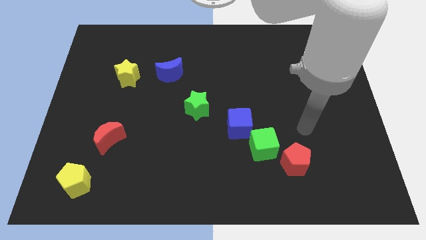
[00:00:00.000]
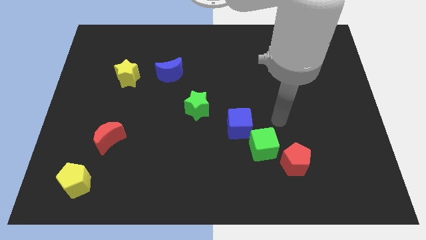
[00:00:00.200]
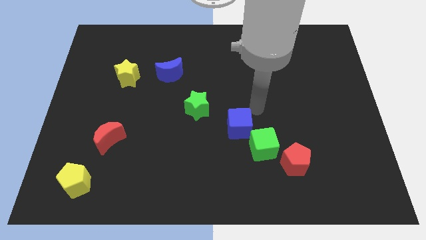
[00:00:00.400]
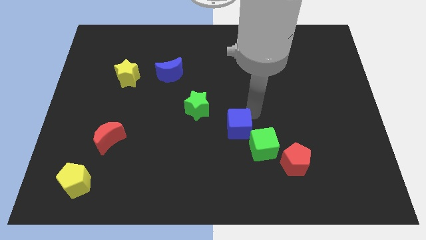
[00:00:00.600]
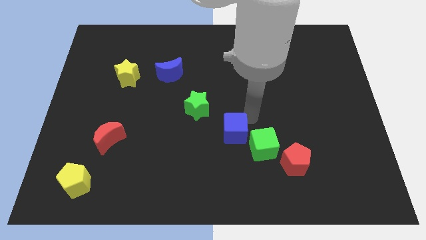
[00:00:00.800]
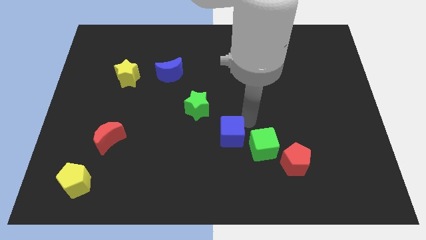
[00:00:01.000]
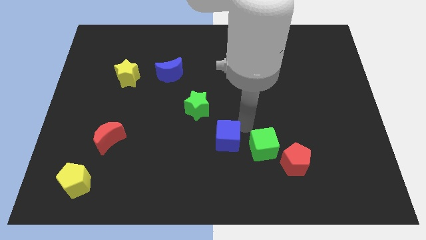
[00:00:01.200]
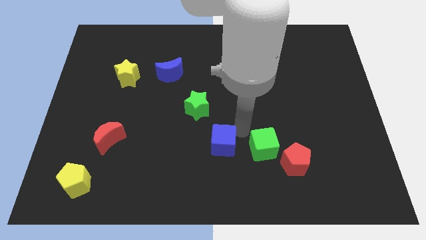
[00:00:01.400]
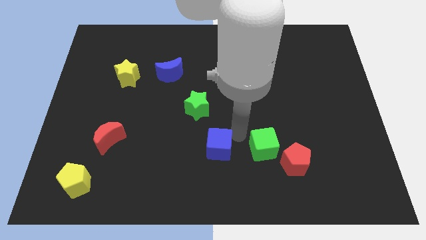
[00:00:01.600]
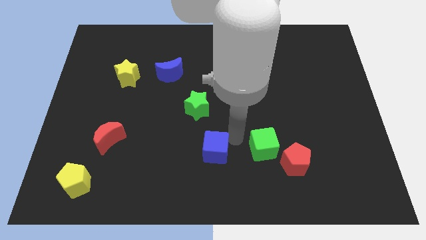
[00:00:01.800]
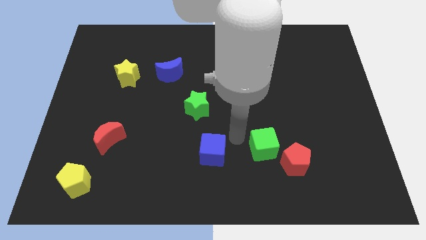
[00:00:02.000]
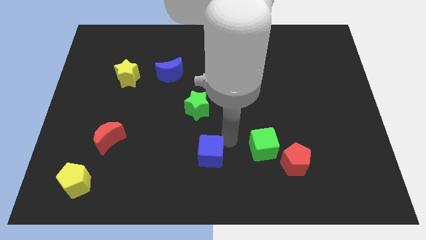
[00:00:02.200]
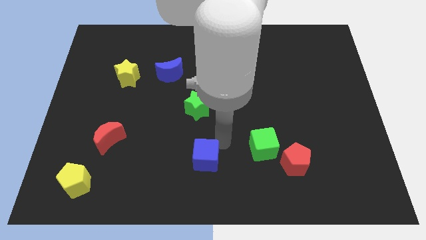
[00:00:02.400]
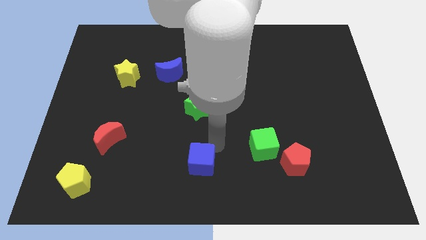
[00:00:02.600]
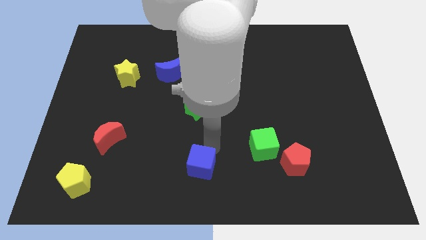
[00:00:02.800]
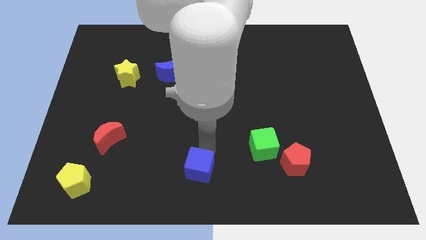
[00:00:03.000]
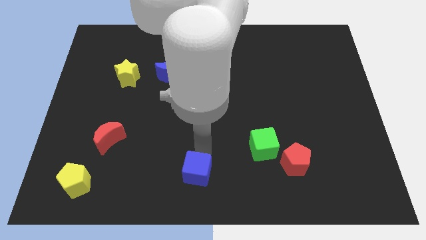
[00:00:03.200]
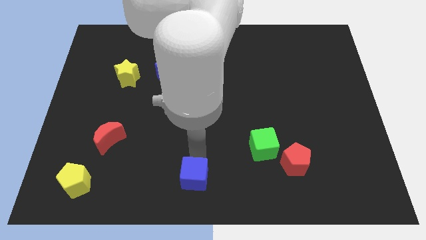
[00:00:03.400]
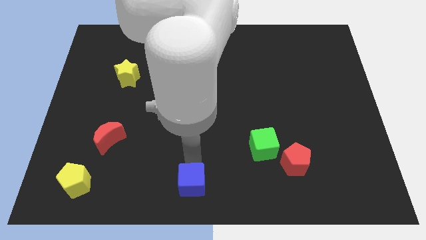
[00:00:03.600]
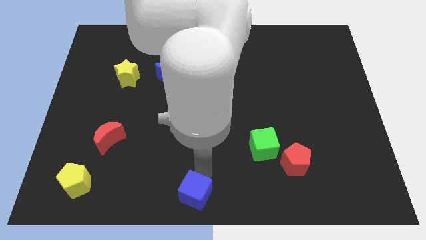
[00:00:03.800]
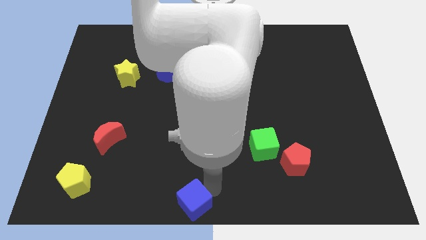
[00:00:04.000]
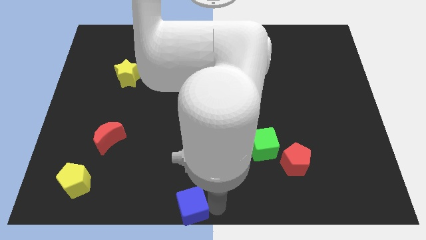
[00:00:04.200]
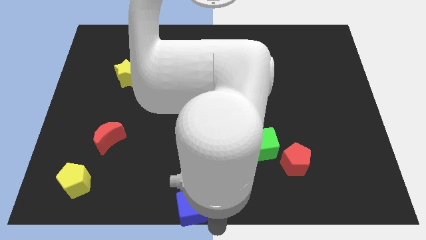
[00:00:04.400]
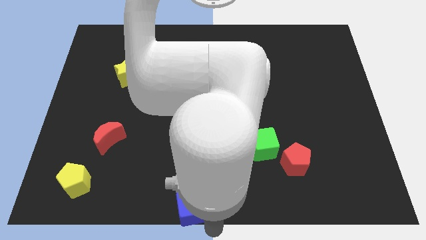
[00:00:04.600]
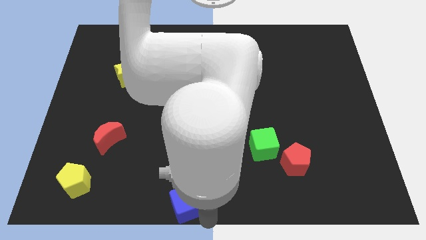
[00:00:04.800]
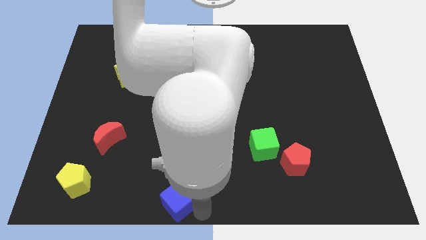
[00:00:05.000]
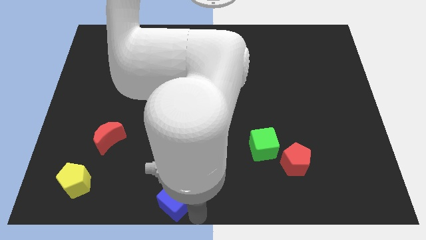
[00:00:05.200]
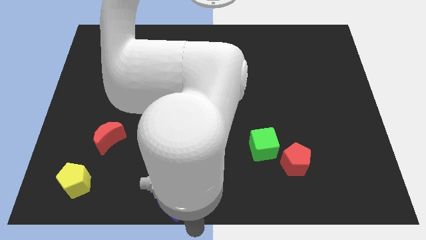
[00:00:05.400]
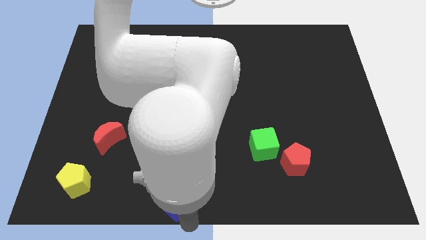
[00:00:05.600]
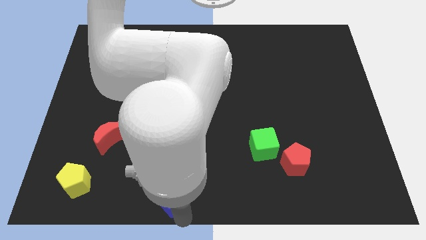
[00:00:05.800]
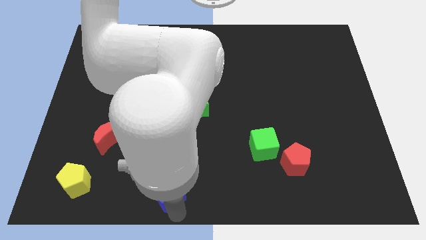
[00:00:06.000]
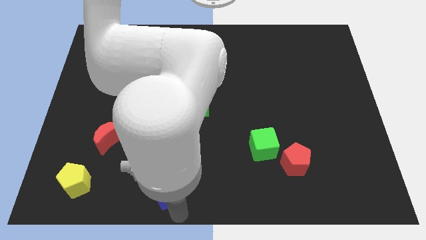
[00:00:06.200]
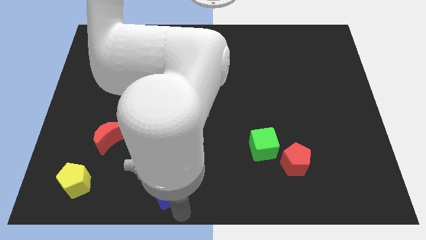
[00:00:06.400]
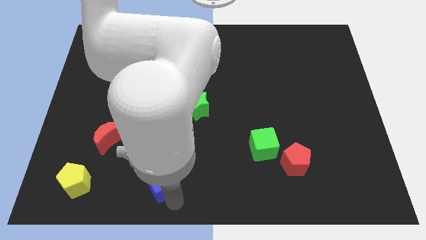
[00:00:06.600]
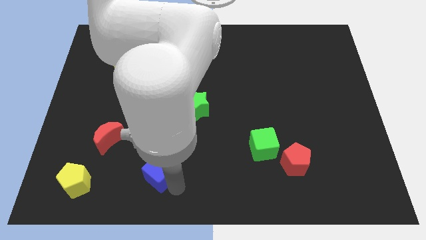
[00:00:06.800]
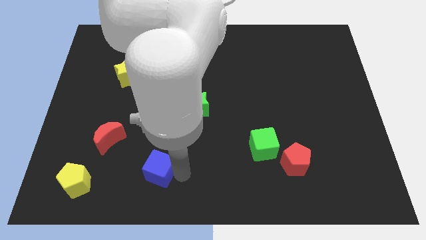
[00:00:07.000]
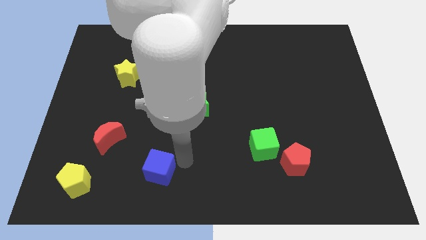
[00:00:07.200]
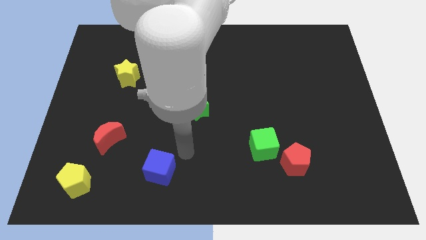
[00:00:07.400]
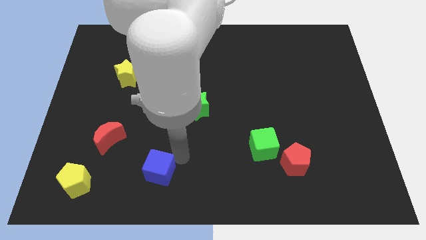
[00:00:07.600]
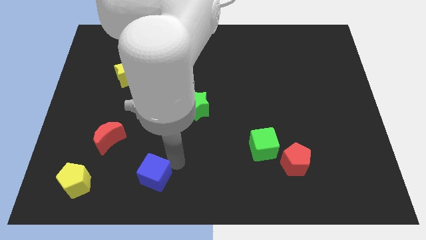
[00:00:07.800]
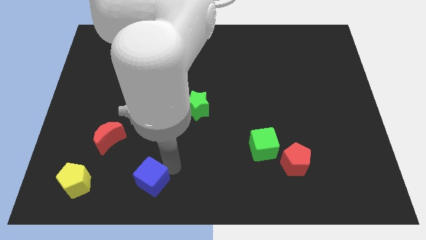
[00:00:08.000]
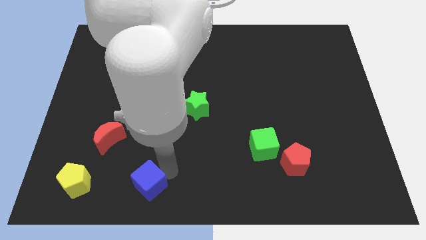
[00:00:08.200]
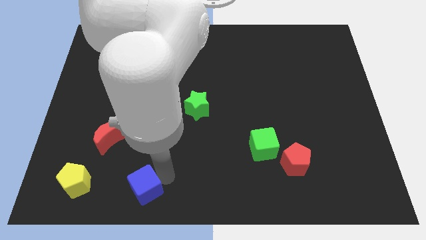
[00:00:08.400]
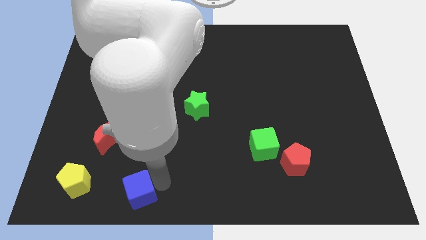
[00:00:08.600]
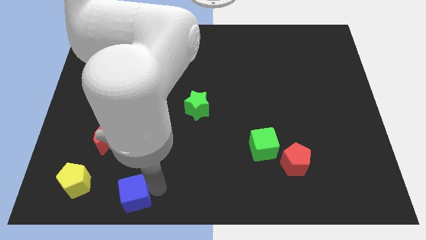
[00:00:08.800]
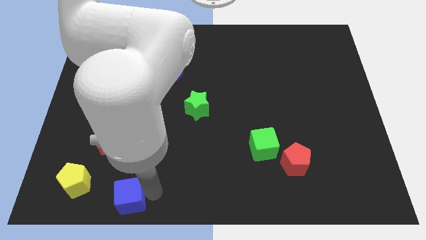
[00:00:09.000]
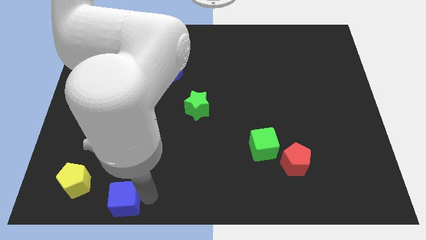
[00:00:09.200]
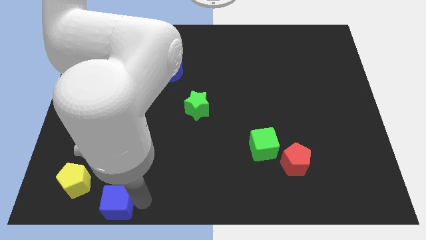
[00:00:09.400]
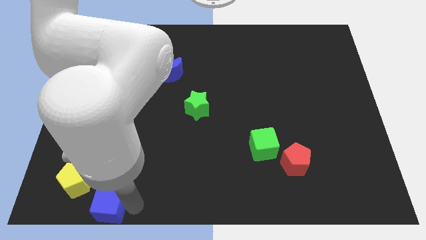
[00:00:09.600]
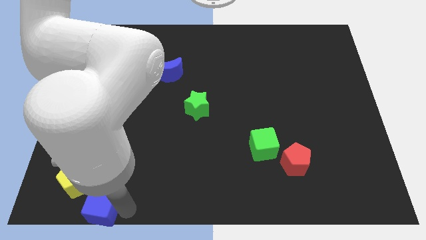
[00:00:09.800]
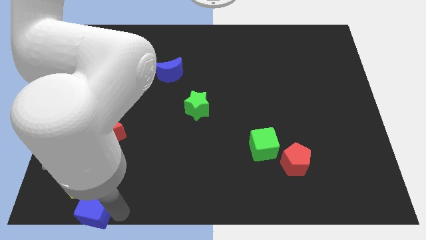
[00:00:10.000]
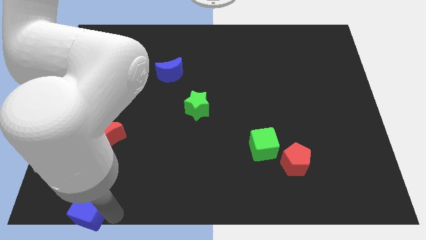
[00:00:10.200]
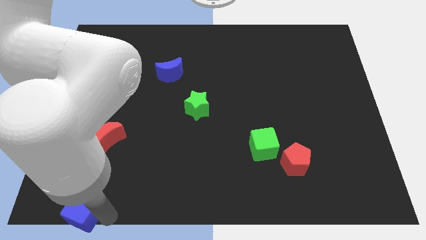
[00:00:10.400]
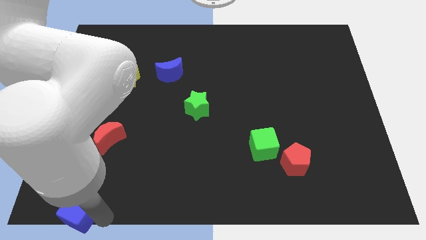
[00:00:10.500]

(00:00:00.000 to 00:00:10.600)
put the blue cube to the bottom left corner

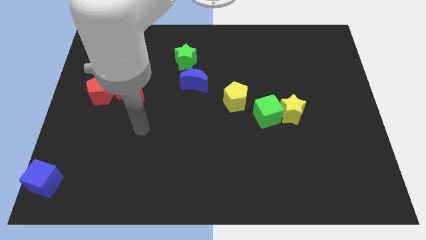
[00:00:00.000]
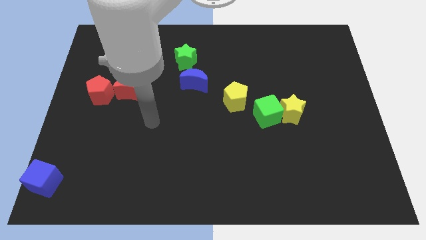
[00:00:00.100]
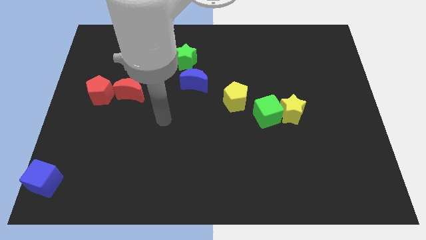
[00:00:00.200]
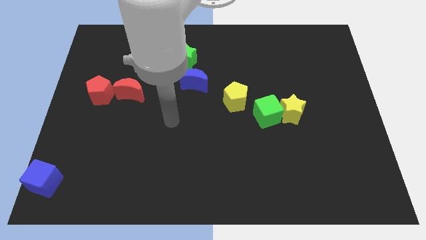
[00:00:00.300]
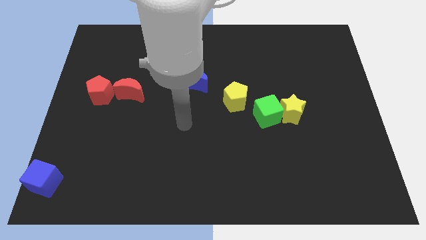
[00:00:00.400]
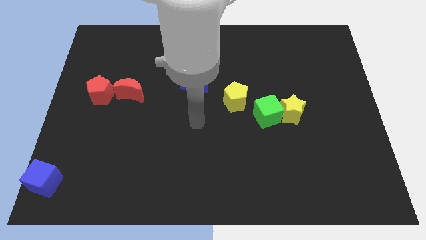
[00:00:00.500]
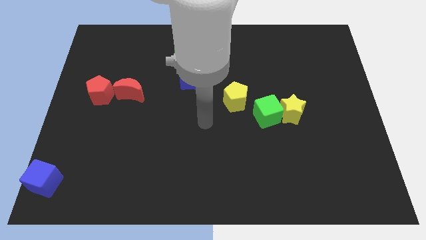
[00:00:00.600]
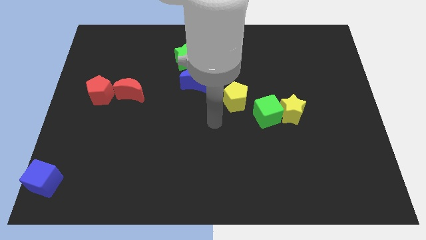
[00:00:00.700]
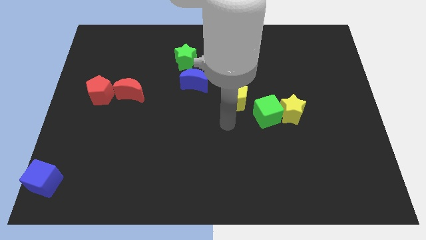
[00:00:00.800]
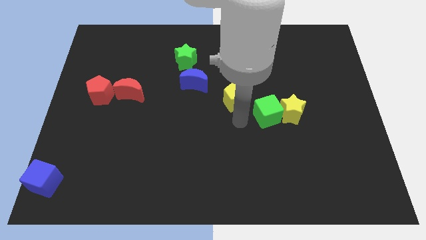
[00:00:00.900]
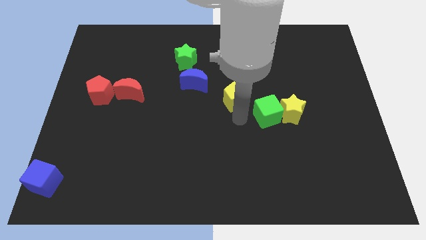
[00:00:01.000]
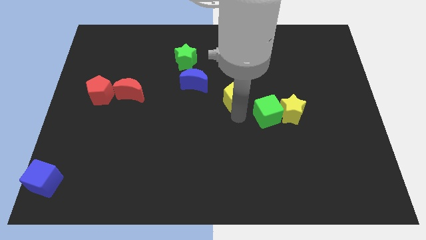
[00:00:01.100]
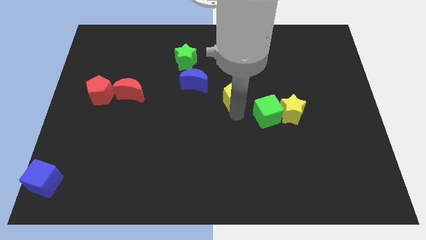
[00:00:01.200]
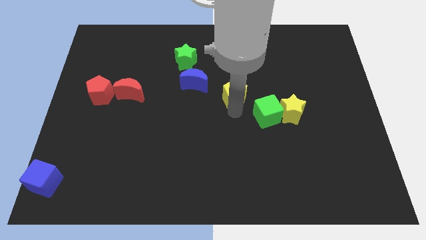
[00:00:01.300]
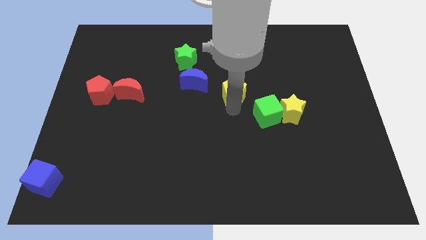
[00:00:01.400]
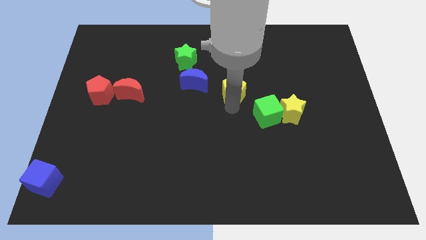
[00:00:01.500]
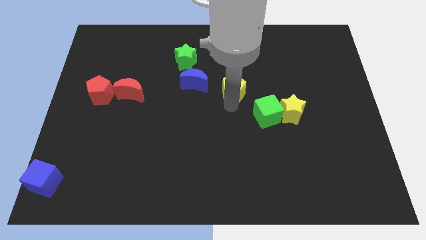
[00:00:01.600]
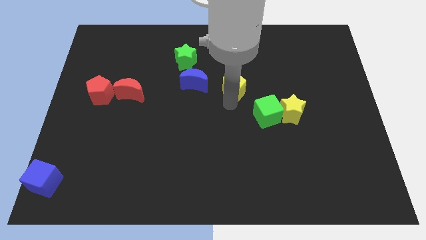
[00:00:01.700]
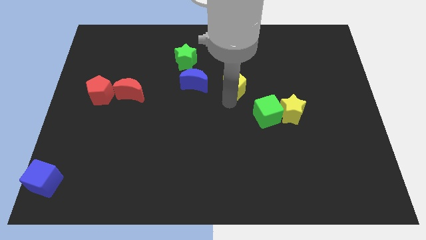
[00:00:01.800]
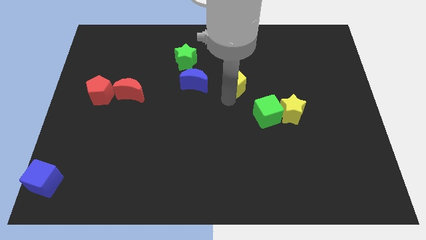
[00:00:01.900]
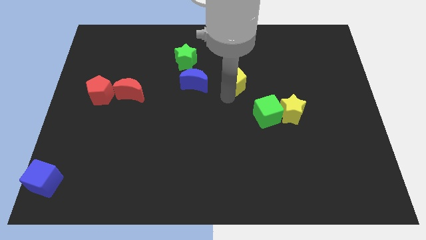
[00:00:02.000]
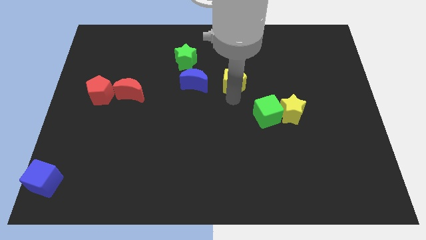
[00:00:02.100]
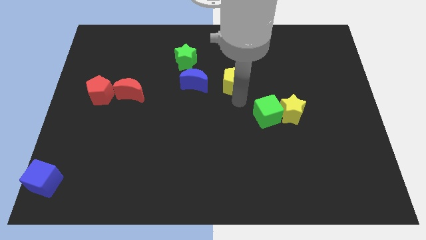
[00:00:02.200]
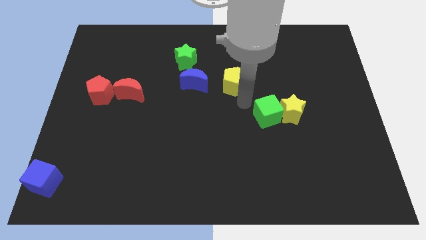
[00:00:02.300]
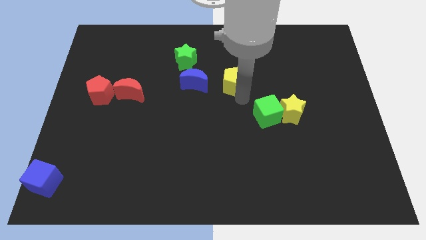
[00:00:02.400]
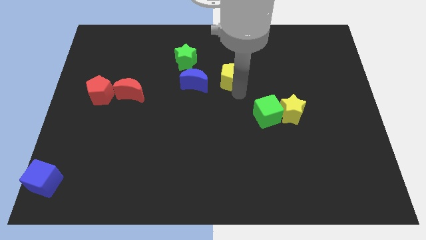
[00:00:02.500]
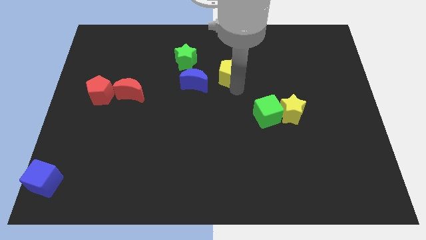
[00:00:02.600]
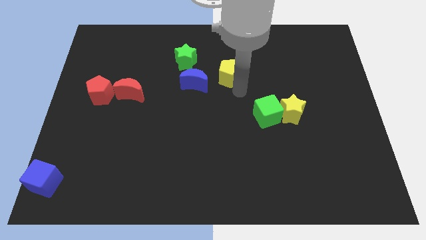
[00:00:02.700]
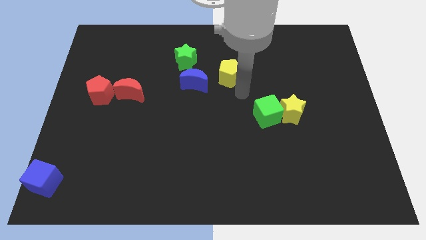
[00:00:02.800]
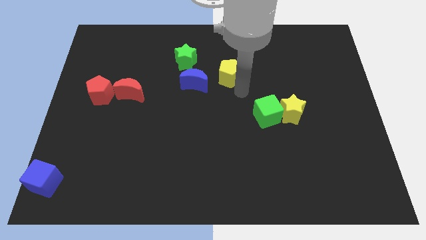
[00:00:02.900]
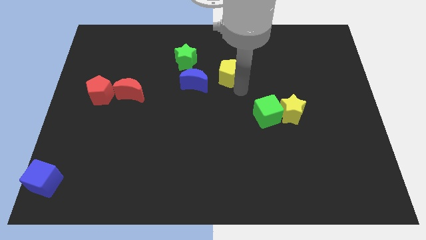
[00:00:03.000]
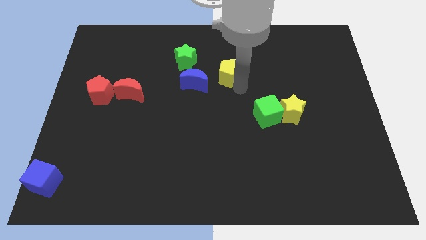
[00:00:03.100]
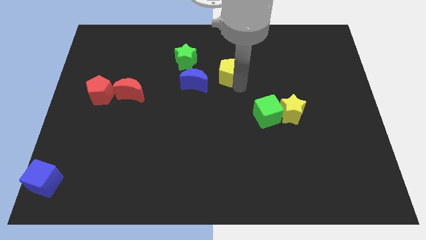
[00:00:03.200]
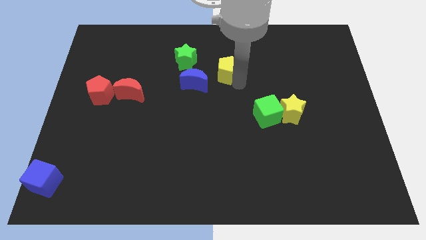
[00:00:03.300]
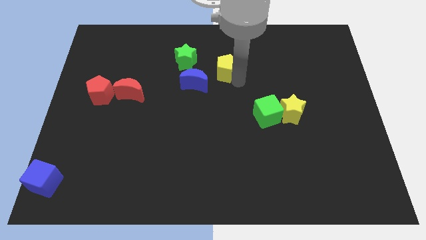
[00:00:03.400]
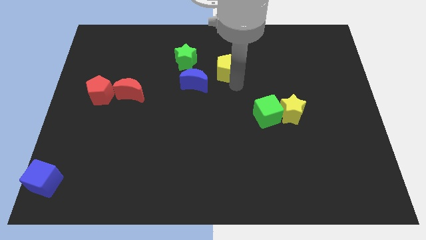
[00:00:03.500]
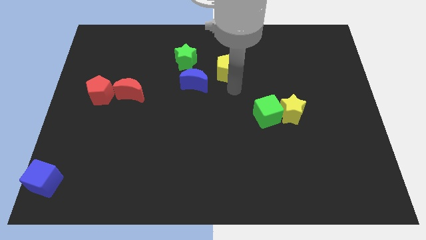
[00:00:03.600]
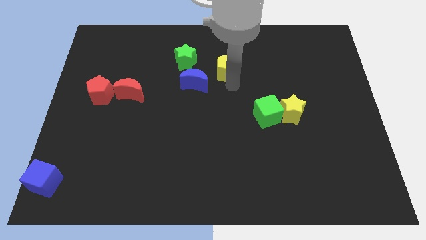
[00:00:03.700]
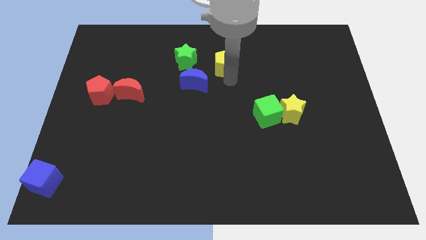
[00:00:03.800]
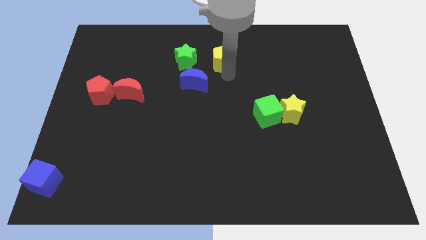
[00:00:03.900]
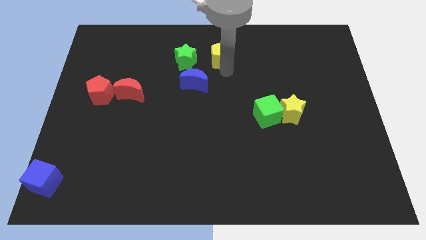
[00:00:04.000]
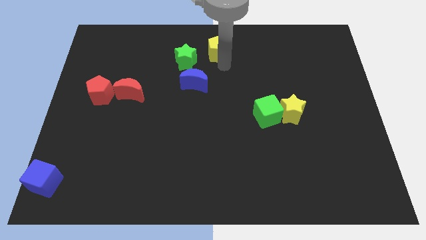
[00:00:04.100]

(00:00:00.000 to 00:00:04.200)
move the yellow pentagon to the top
